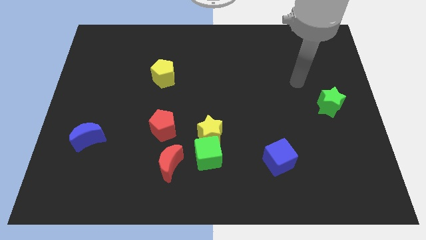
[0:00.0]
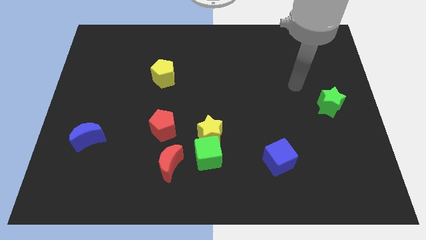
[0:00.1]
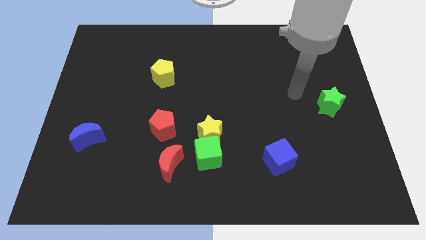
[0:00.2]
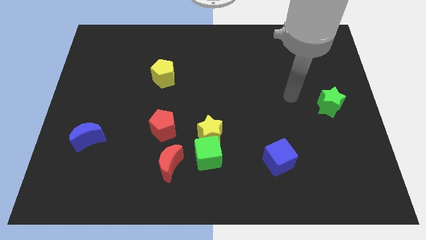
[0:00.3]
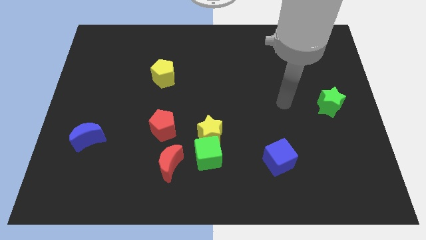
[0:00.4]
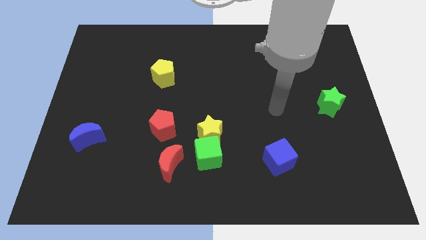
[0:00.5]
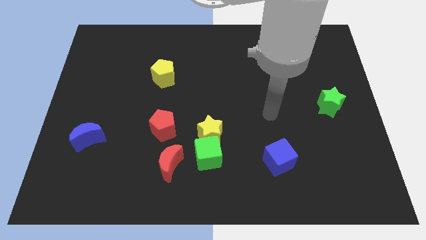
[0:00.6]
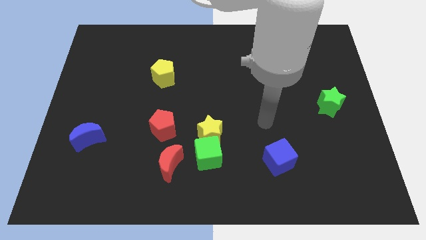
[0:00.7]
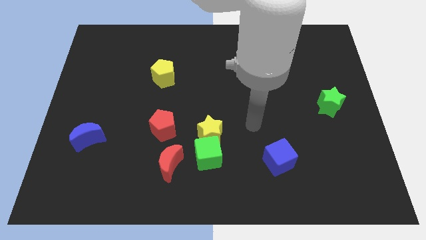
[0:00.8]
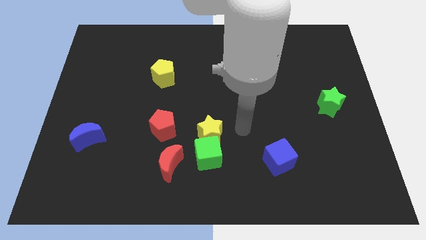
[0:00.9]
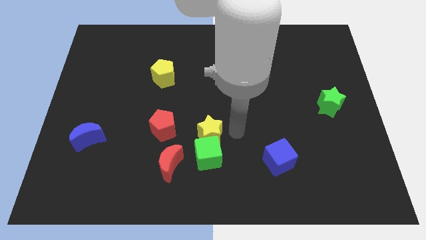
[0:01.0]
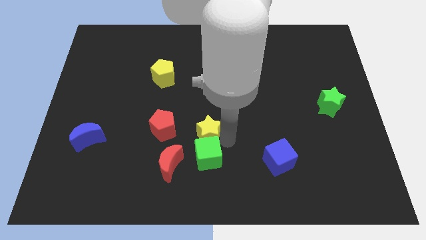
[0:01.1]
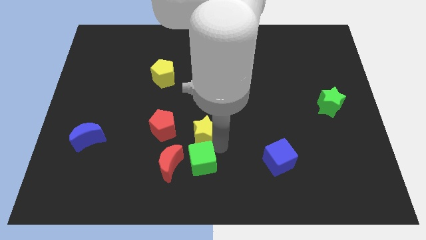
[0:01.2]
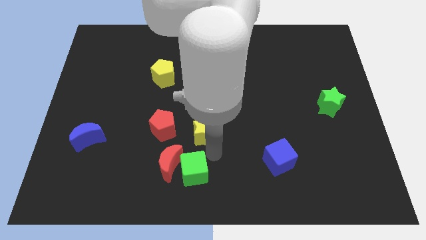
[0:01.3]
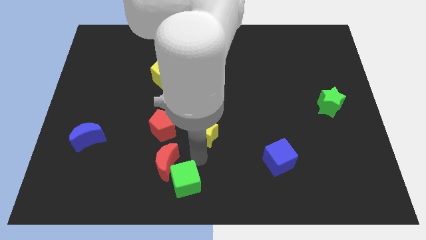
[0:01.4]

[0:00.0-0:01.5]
move the yellow star away from the green cube

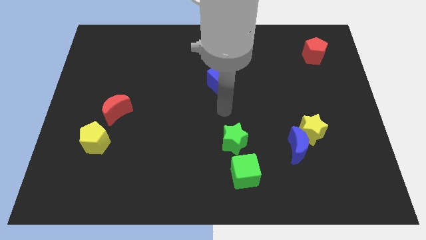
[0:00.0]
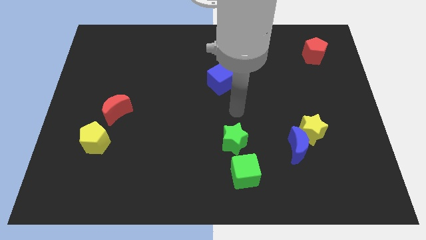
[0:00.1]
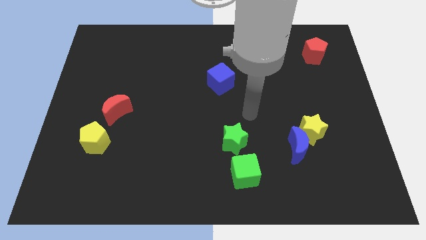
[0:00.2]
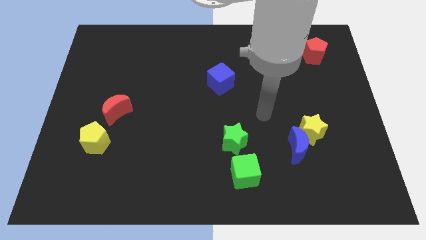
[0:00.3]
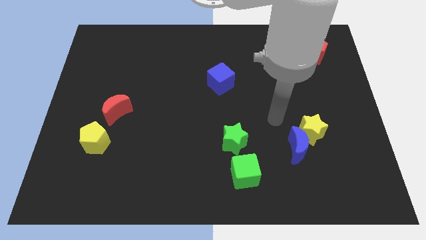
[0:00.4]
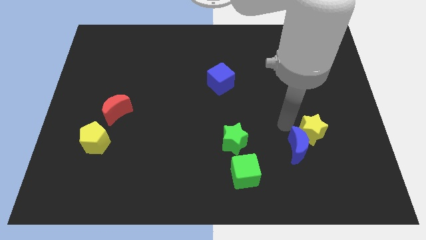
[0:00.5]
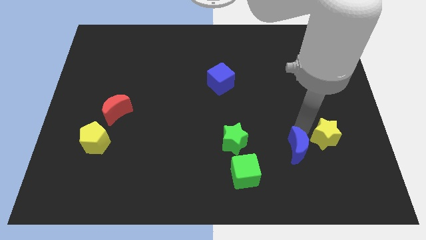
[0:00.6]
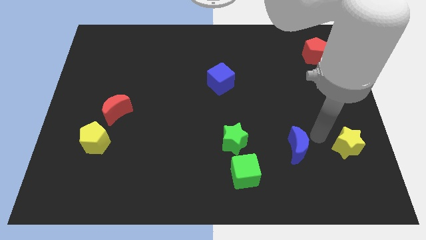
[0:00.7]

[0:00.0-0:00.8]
separate the blue moon from the yellow star

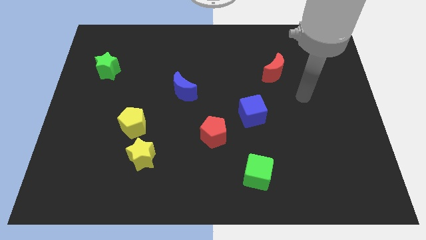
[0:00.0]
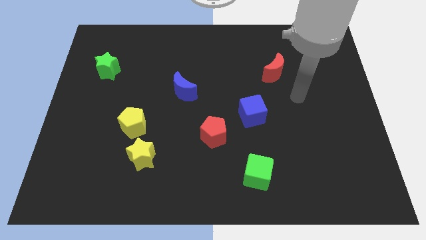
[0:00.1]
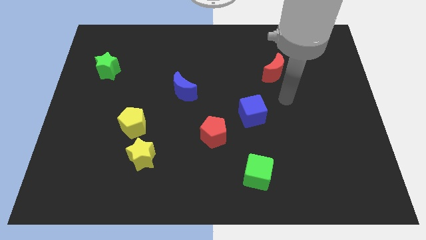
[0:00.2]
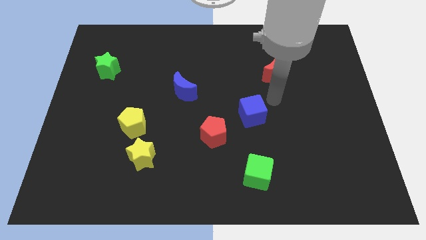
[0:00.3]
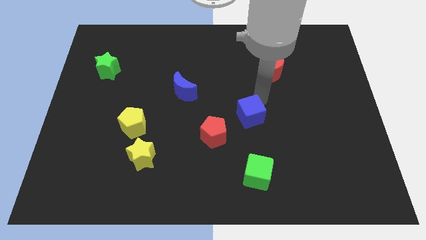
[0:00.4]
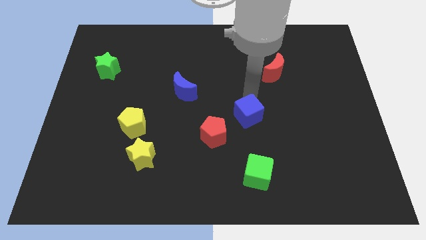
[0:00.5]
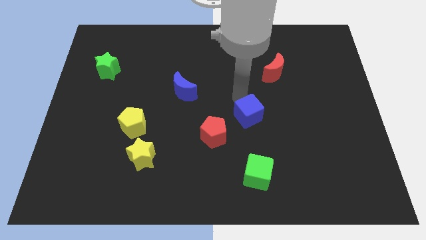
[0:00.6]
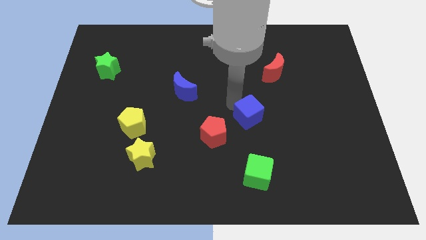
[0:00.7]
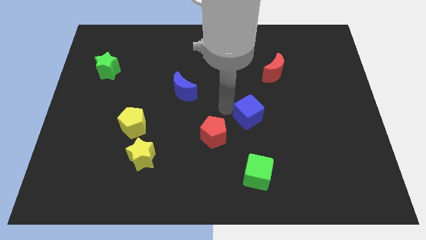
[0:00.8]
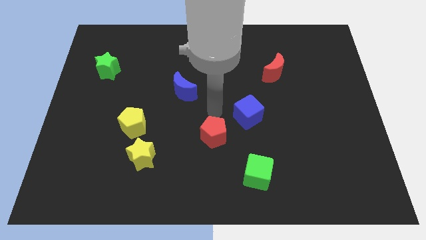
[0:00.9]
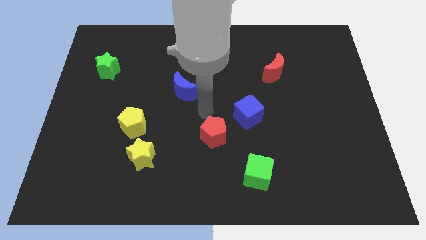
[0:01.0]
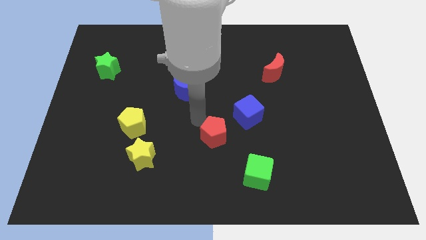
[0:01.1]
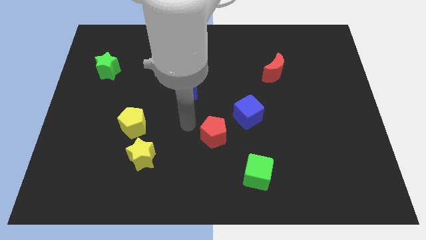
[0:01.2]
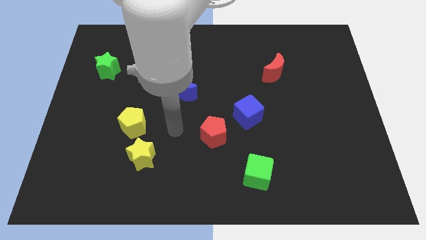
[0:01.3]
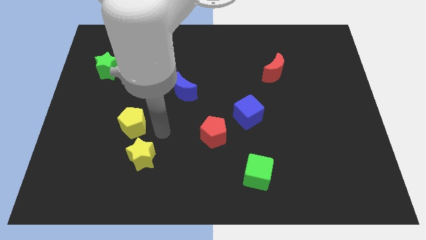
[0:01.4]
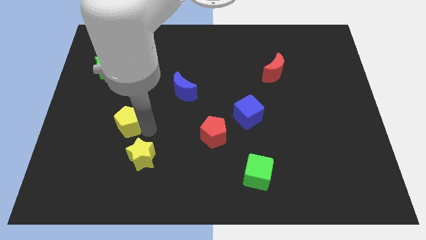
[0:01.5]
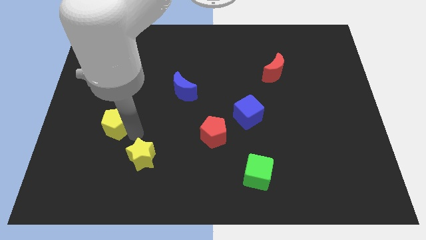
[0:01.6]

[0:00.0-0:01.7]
separate the yellow star from the yellow pentagon

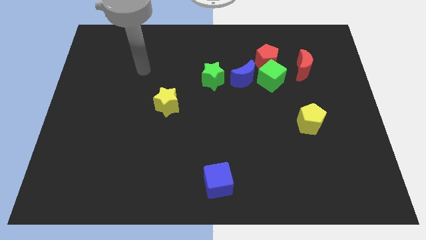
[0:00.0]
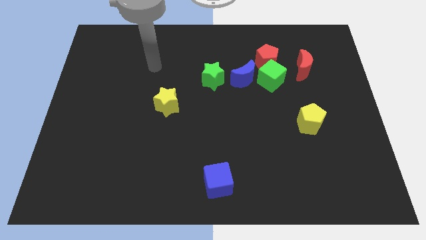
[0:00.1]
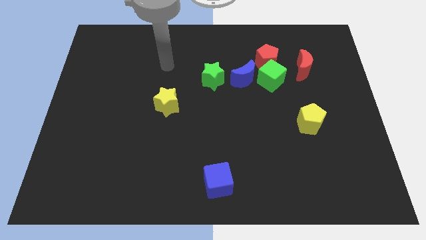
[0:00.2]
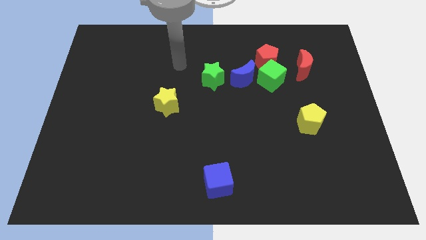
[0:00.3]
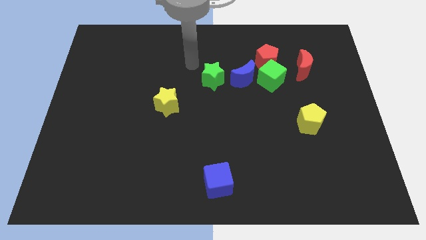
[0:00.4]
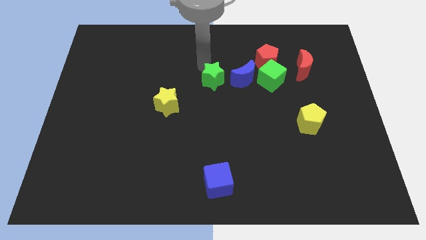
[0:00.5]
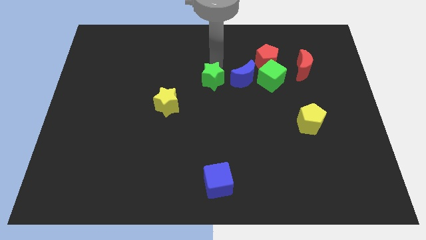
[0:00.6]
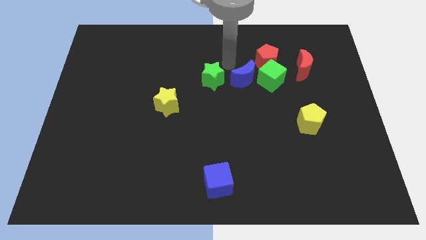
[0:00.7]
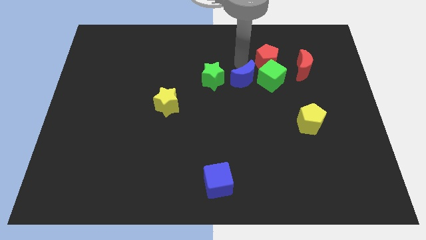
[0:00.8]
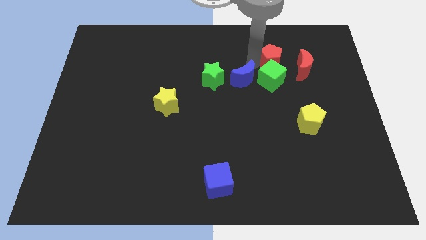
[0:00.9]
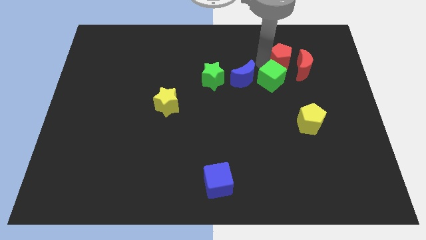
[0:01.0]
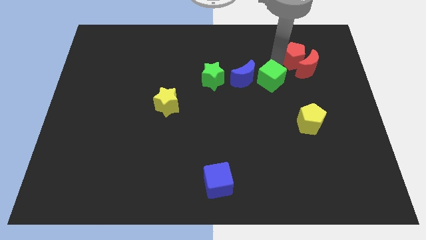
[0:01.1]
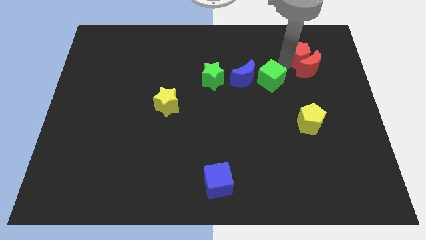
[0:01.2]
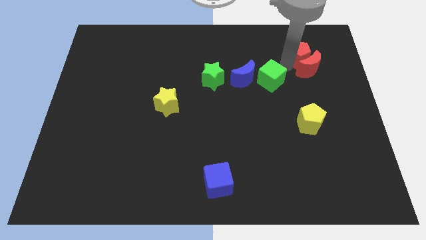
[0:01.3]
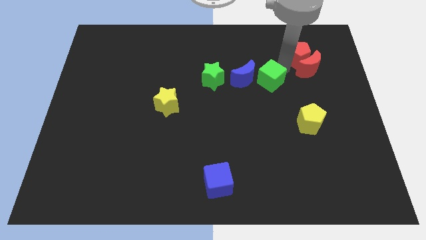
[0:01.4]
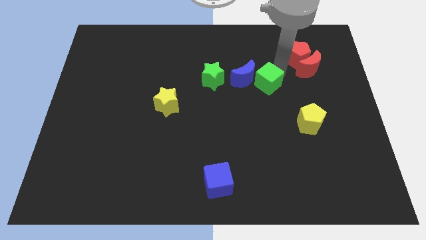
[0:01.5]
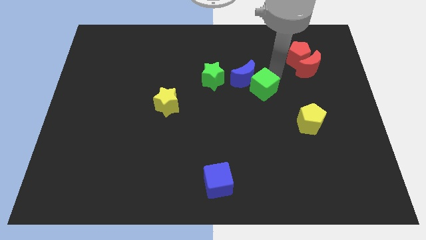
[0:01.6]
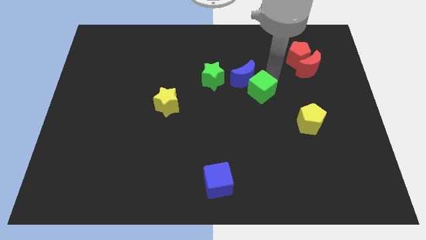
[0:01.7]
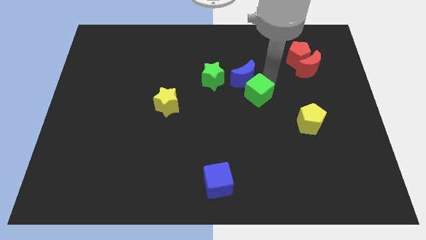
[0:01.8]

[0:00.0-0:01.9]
separate the green cube from the group of blocks

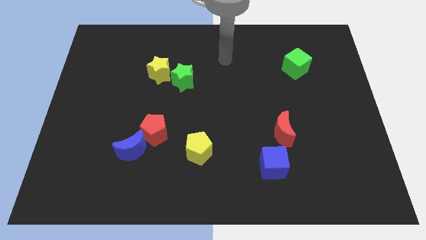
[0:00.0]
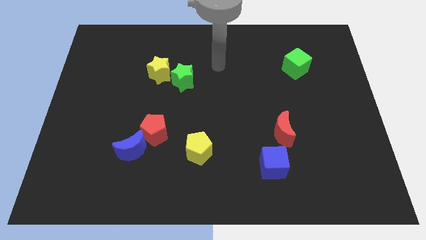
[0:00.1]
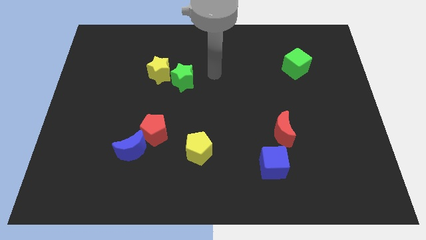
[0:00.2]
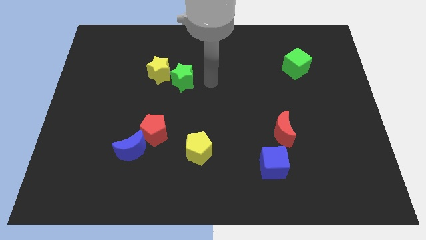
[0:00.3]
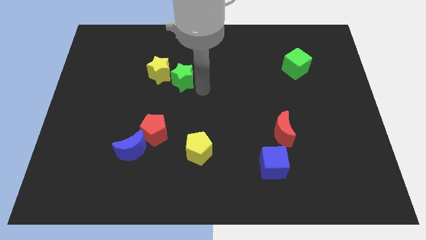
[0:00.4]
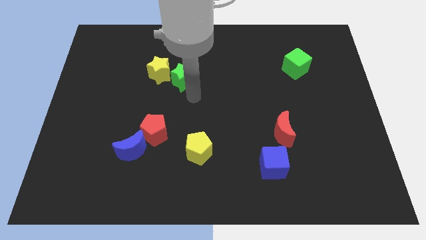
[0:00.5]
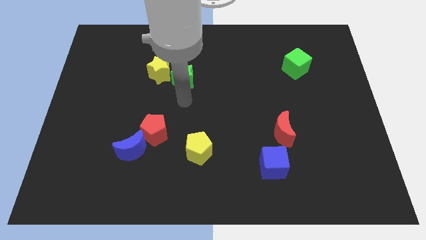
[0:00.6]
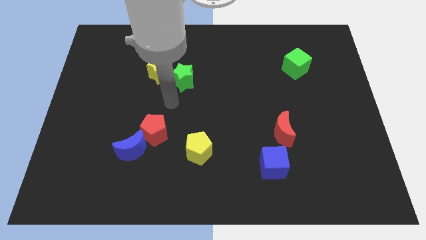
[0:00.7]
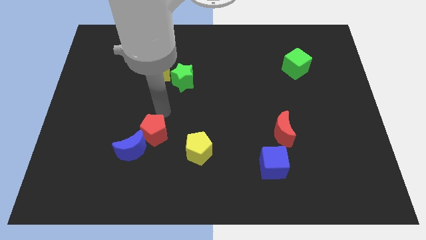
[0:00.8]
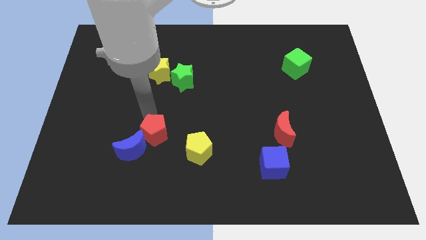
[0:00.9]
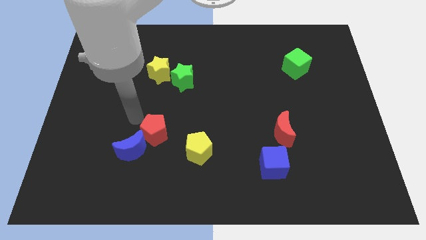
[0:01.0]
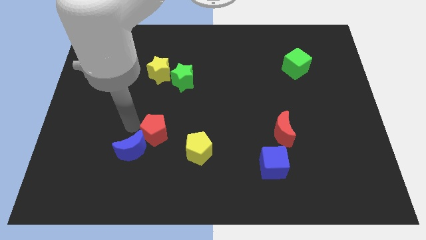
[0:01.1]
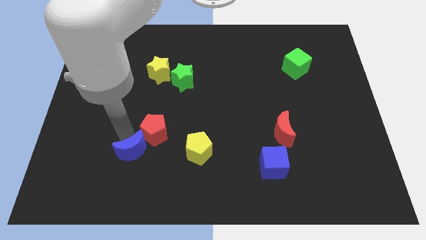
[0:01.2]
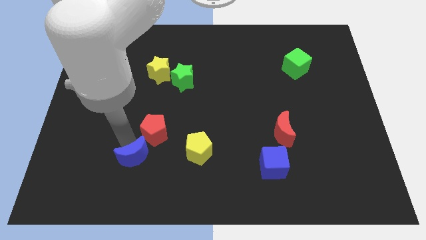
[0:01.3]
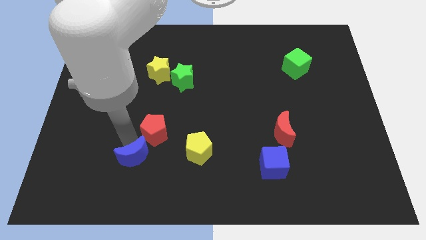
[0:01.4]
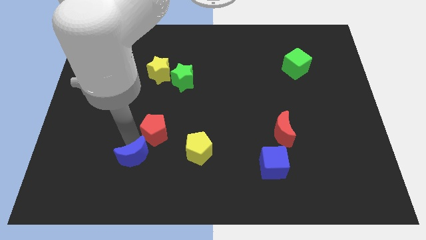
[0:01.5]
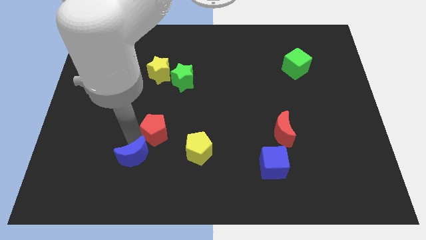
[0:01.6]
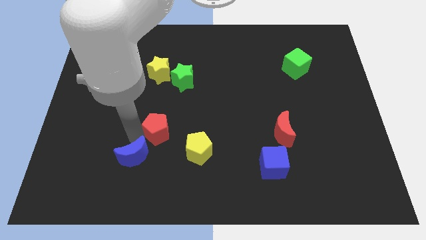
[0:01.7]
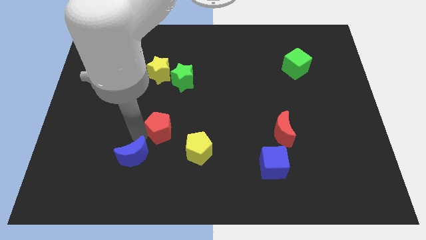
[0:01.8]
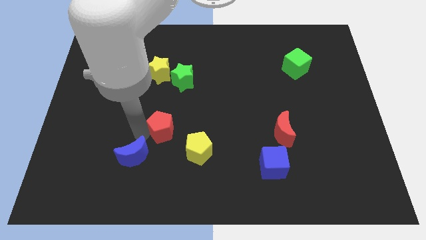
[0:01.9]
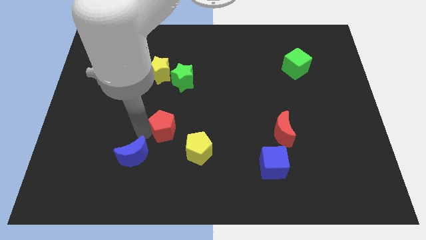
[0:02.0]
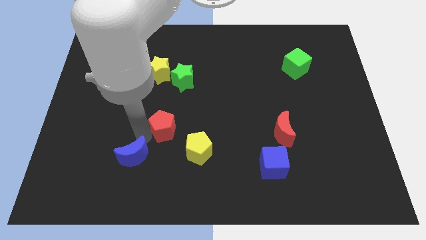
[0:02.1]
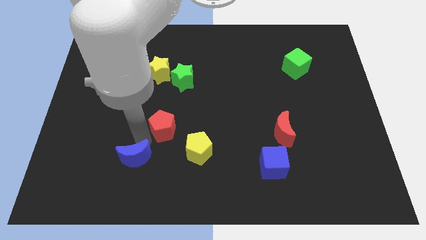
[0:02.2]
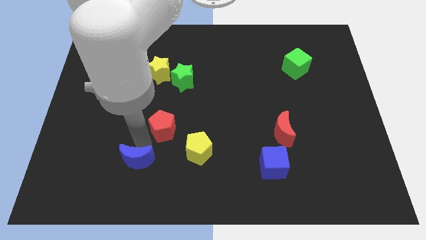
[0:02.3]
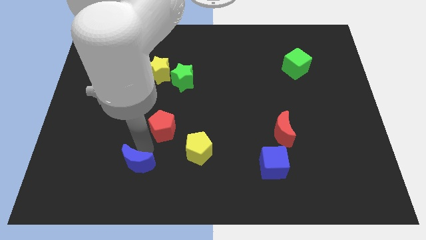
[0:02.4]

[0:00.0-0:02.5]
pull the red pentagon apart from the blue moon

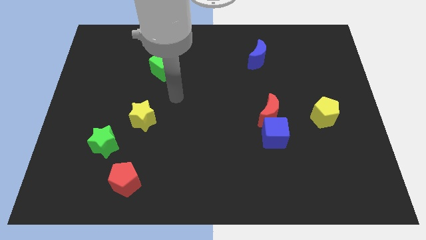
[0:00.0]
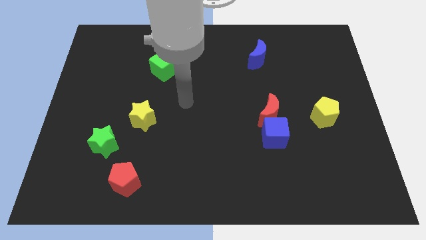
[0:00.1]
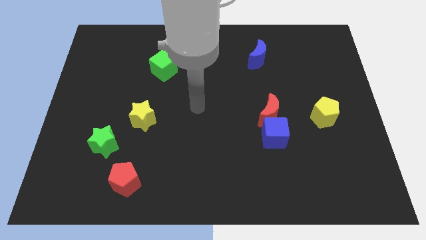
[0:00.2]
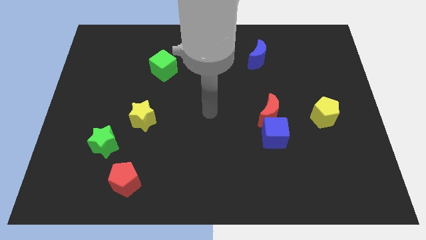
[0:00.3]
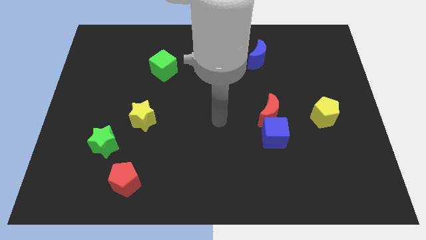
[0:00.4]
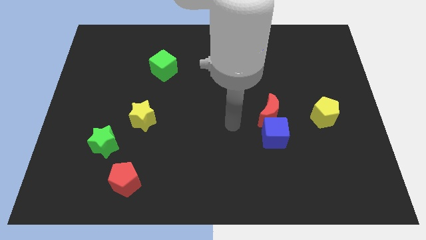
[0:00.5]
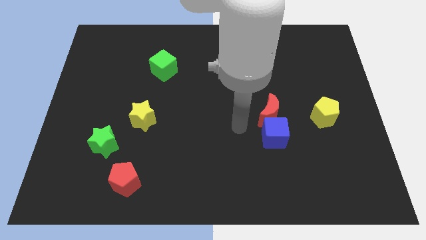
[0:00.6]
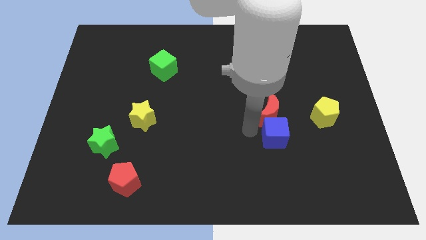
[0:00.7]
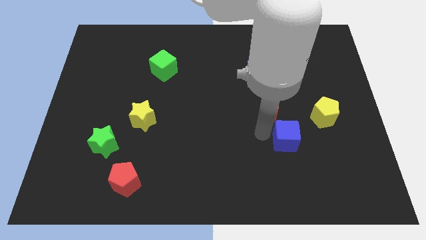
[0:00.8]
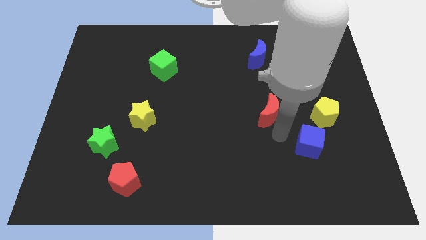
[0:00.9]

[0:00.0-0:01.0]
pull the red moon apart from the blue cube
